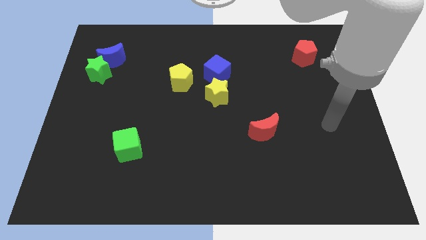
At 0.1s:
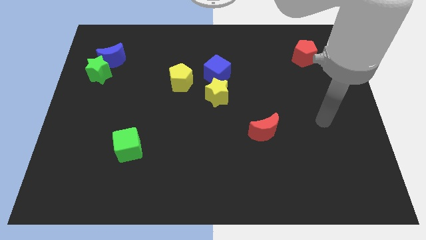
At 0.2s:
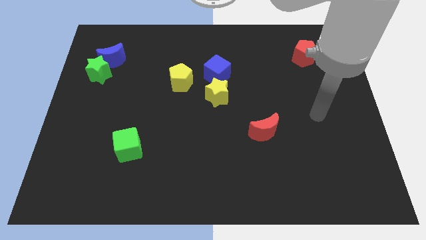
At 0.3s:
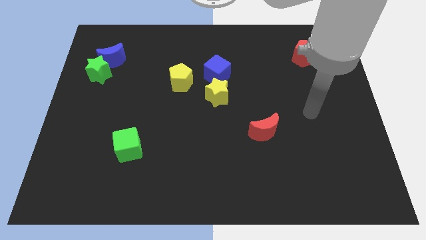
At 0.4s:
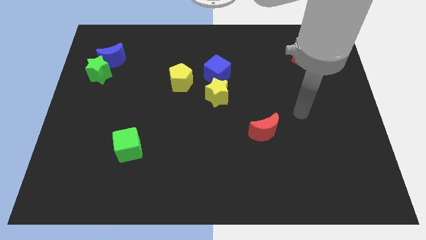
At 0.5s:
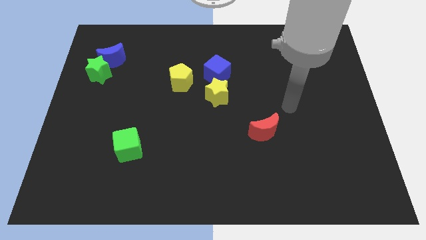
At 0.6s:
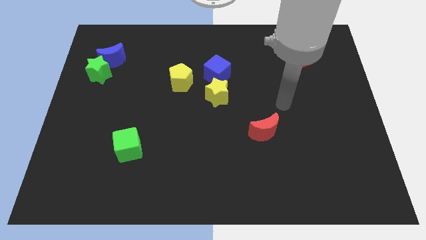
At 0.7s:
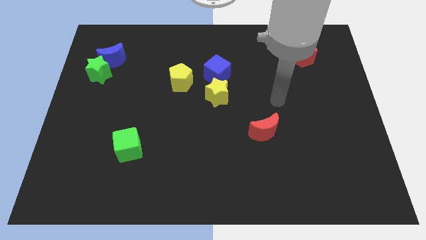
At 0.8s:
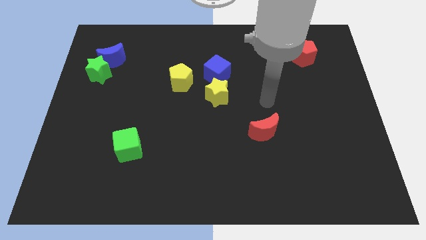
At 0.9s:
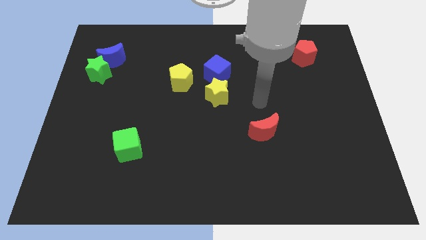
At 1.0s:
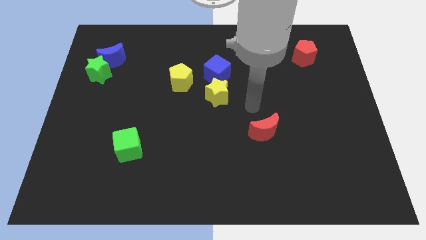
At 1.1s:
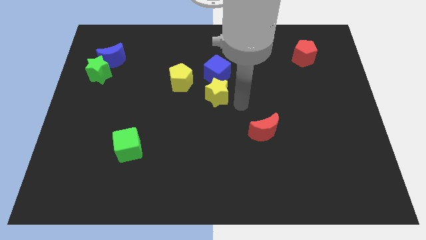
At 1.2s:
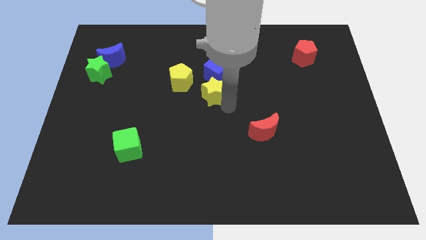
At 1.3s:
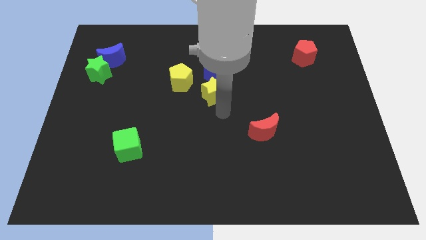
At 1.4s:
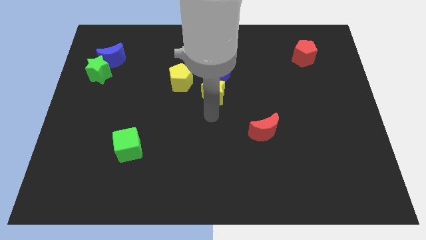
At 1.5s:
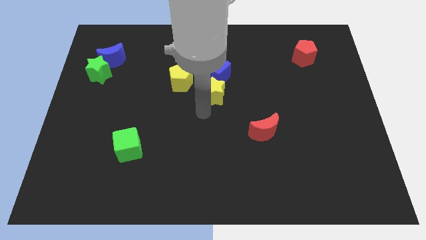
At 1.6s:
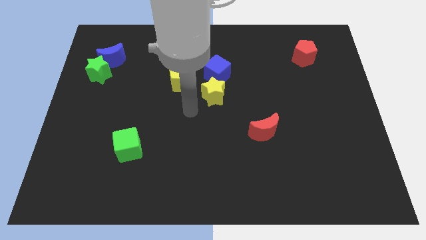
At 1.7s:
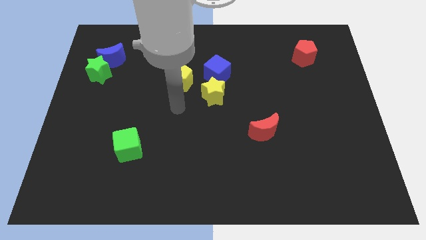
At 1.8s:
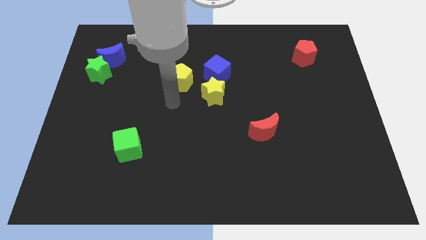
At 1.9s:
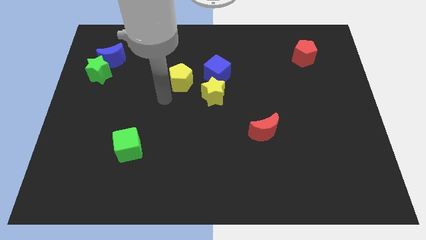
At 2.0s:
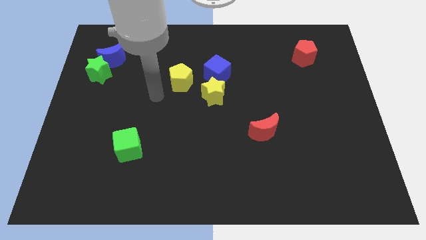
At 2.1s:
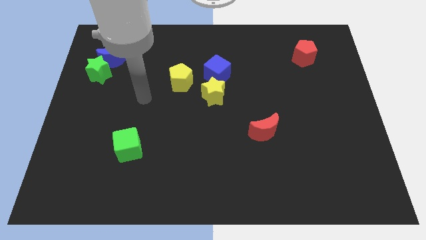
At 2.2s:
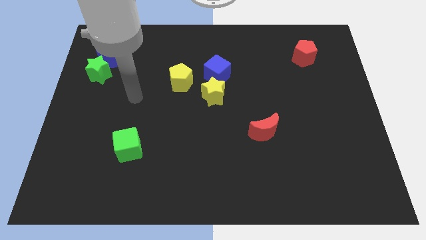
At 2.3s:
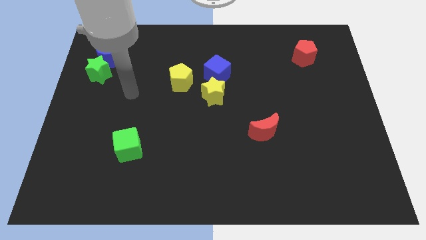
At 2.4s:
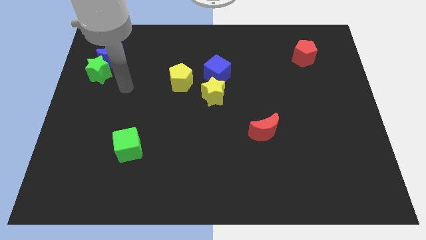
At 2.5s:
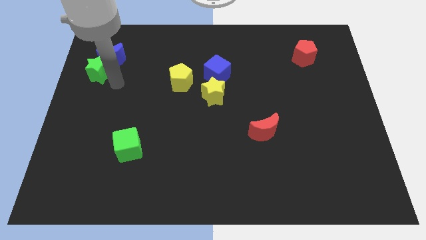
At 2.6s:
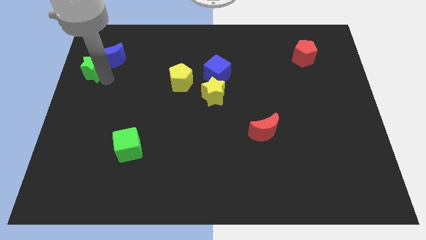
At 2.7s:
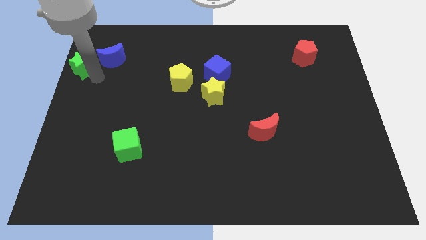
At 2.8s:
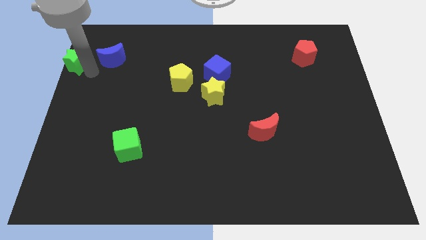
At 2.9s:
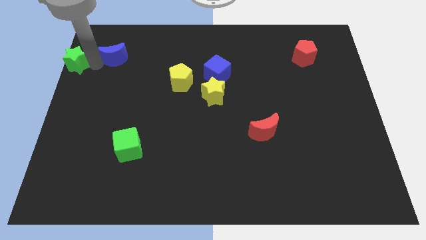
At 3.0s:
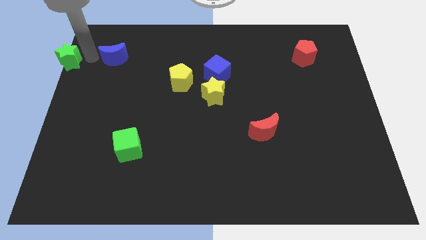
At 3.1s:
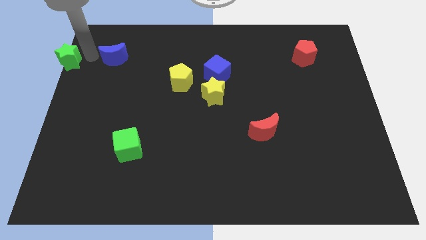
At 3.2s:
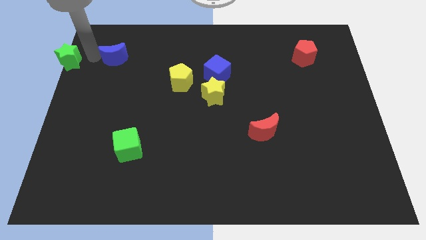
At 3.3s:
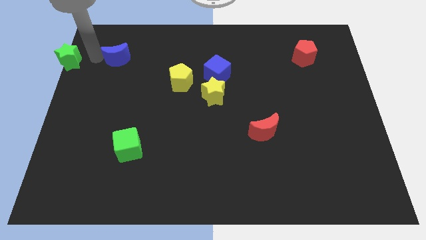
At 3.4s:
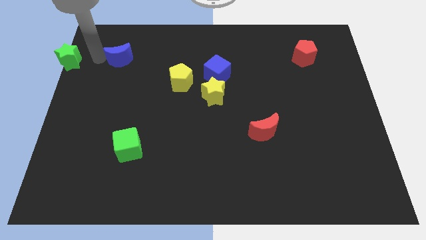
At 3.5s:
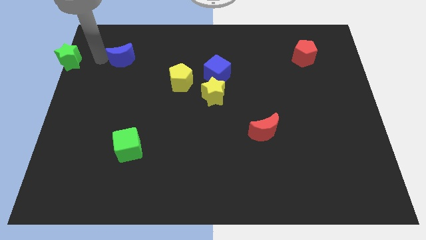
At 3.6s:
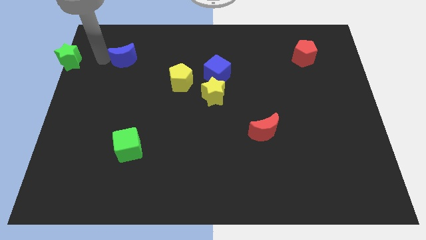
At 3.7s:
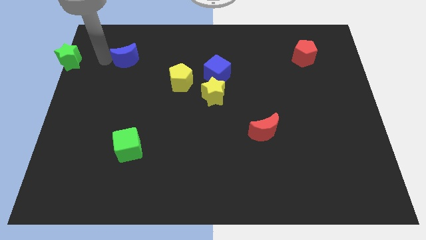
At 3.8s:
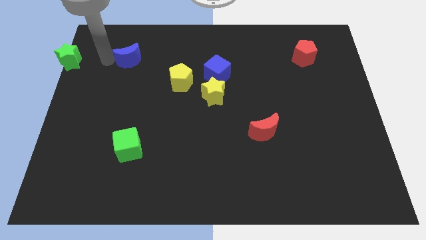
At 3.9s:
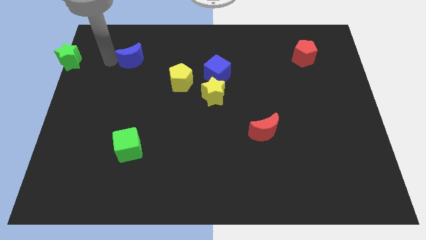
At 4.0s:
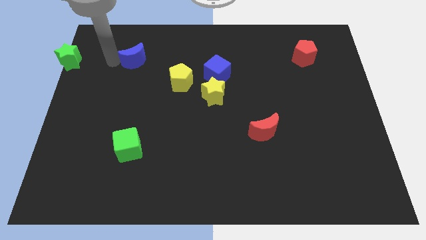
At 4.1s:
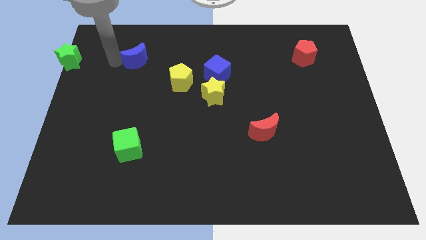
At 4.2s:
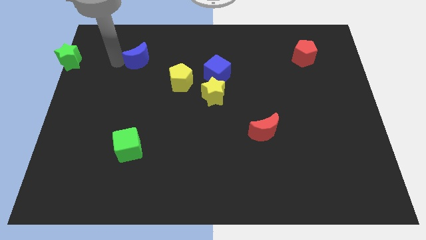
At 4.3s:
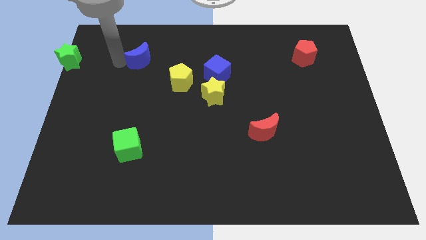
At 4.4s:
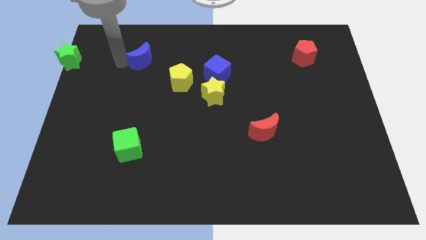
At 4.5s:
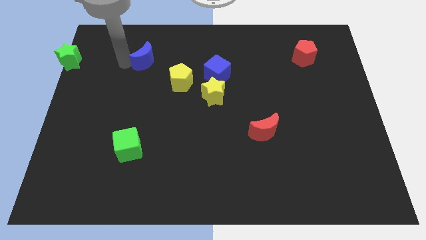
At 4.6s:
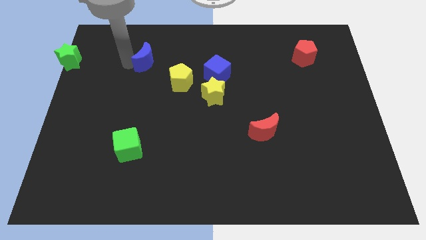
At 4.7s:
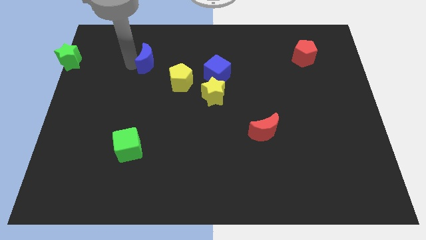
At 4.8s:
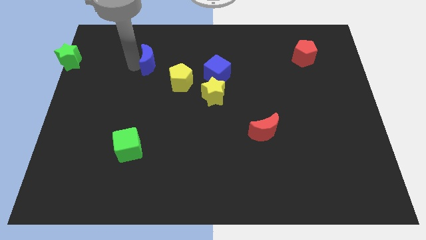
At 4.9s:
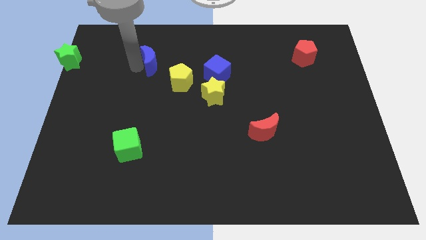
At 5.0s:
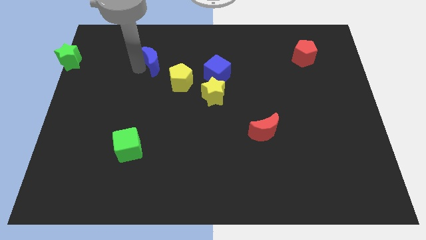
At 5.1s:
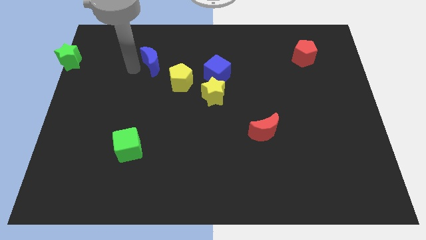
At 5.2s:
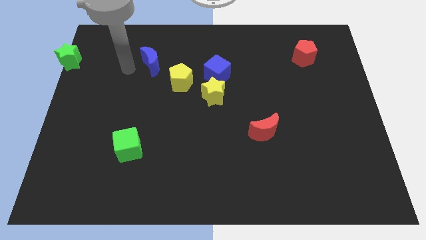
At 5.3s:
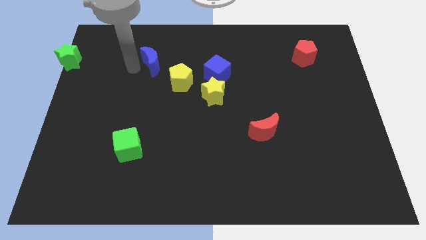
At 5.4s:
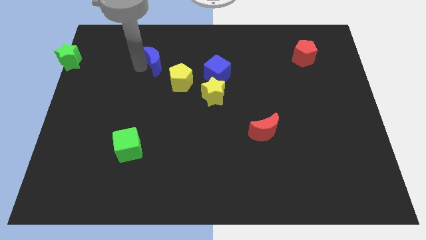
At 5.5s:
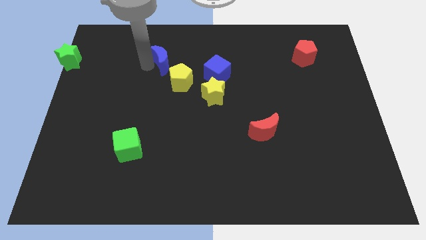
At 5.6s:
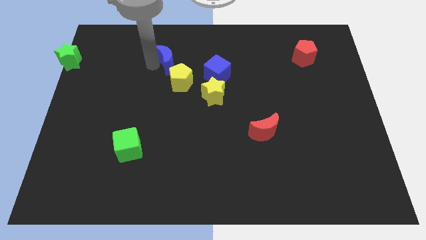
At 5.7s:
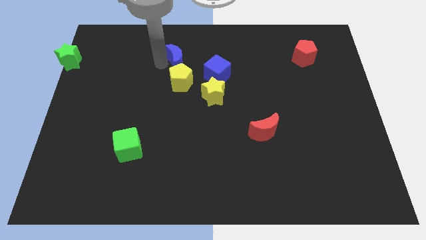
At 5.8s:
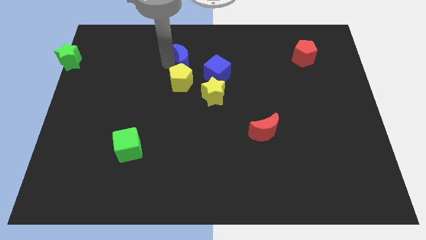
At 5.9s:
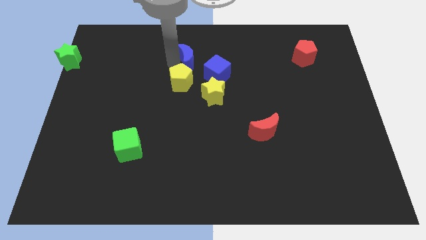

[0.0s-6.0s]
slide the blue moon right

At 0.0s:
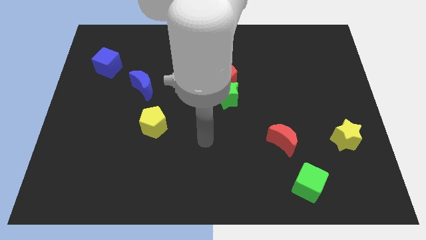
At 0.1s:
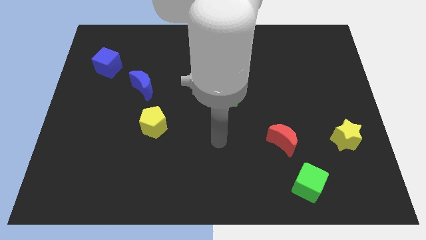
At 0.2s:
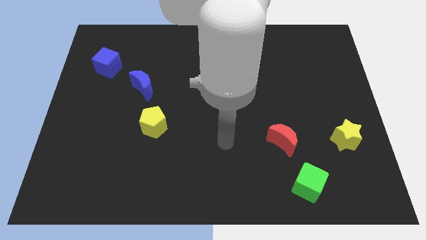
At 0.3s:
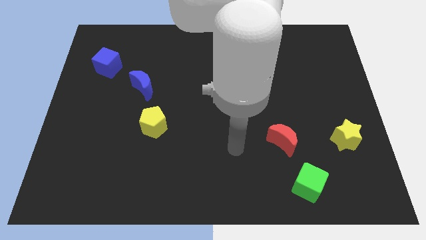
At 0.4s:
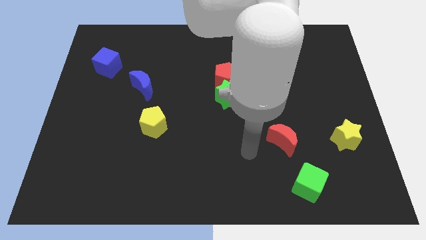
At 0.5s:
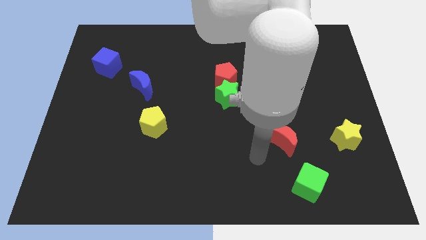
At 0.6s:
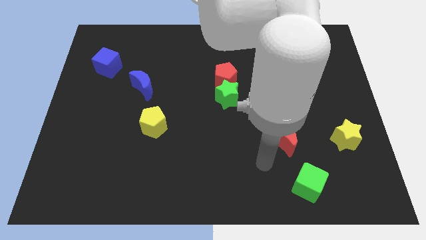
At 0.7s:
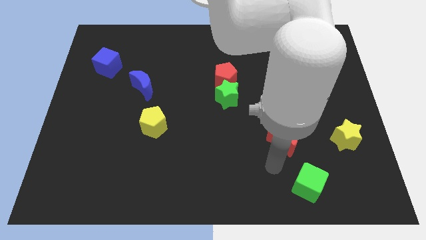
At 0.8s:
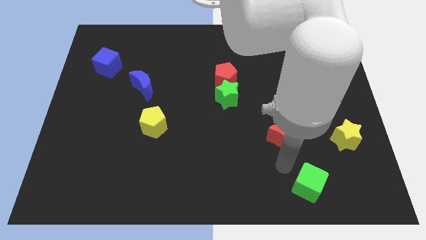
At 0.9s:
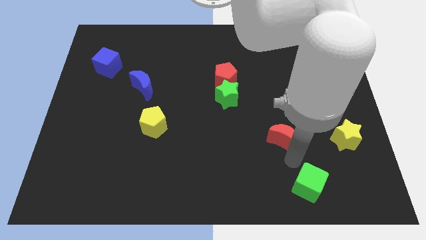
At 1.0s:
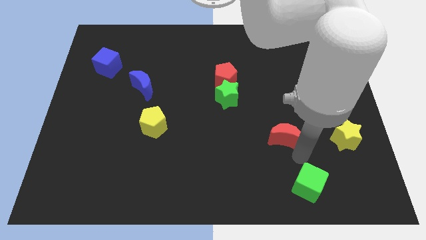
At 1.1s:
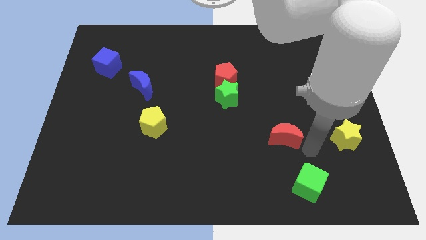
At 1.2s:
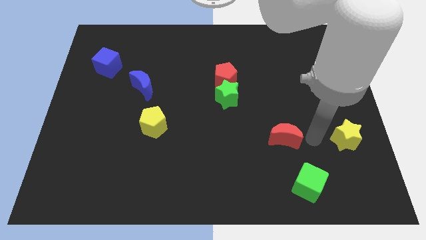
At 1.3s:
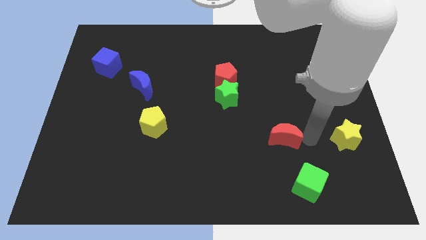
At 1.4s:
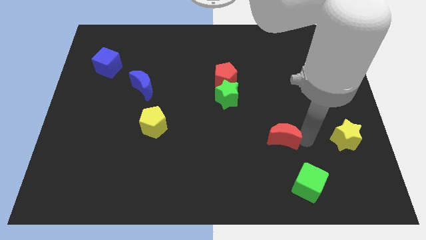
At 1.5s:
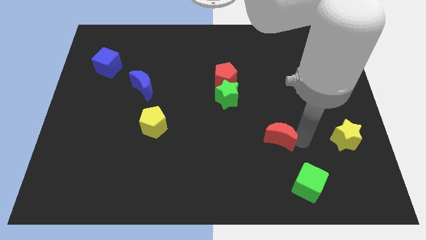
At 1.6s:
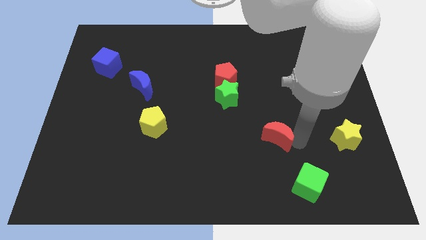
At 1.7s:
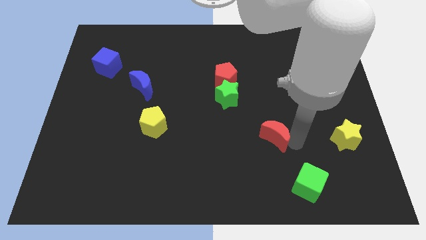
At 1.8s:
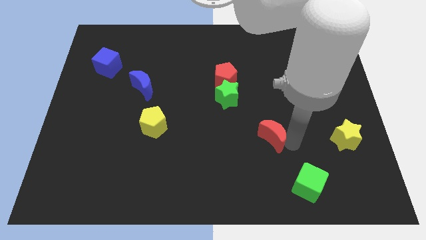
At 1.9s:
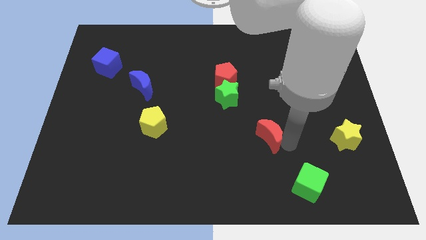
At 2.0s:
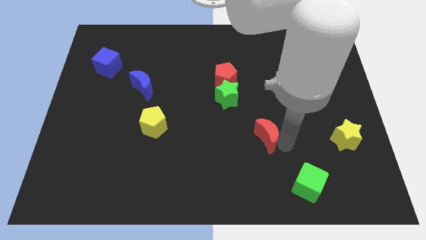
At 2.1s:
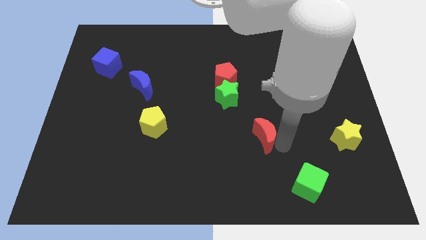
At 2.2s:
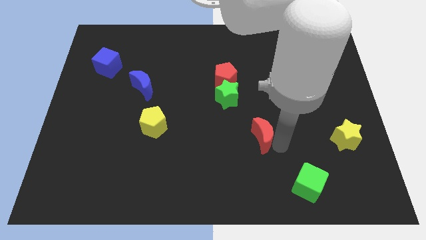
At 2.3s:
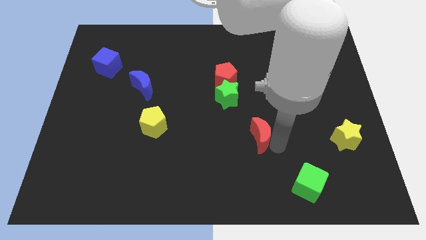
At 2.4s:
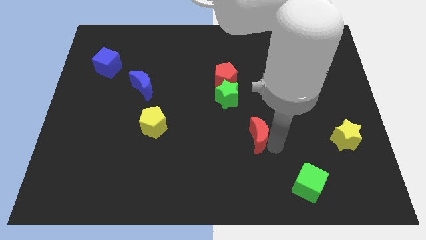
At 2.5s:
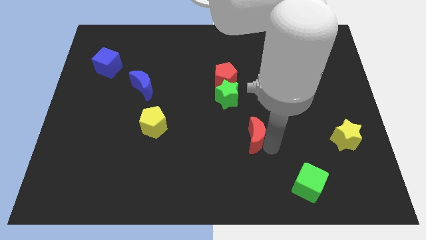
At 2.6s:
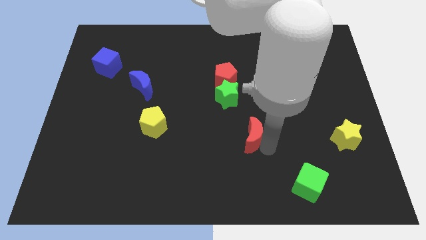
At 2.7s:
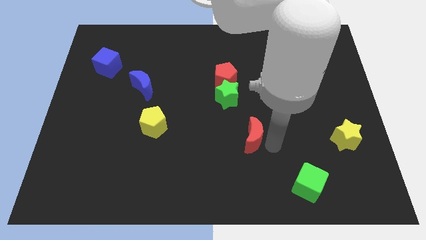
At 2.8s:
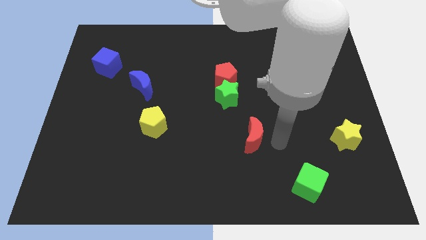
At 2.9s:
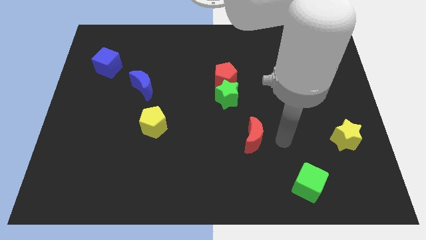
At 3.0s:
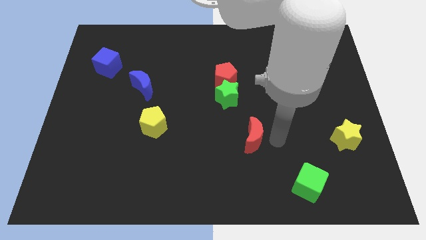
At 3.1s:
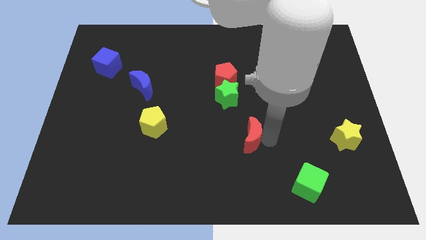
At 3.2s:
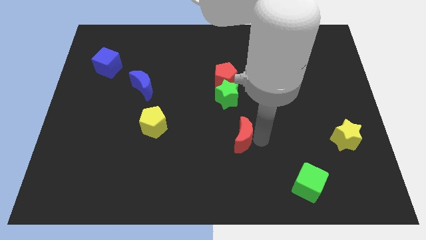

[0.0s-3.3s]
slide the red moon somewhat to the left
